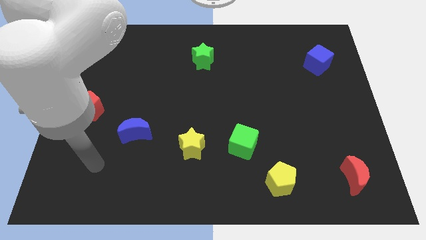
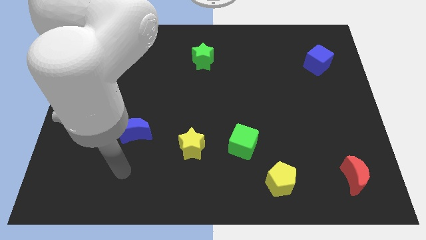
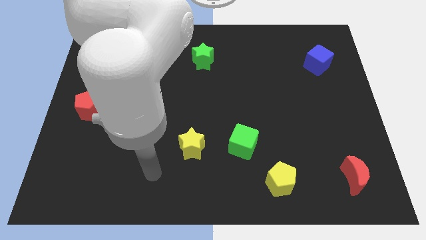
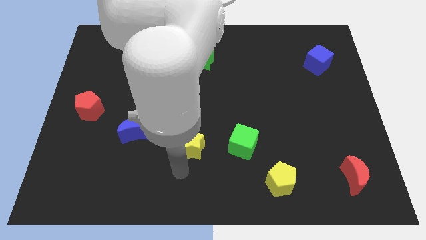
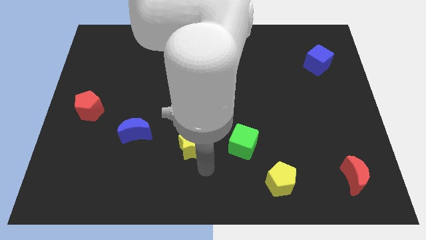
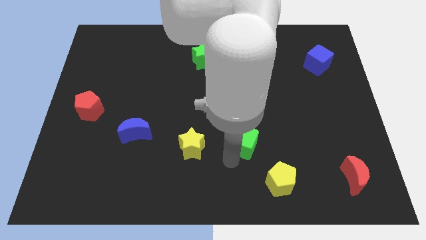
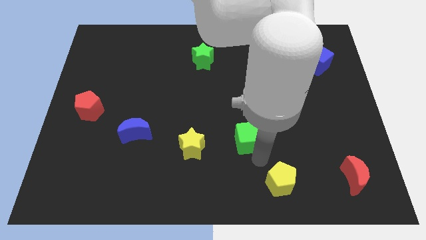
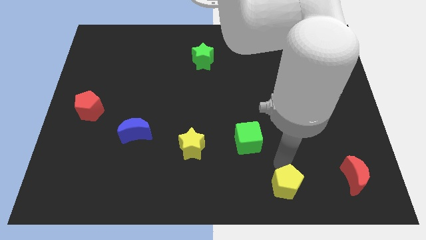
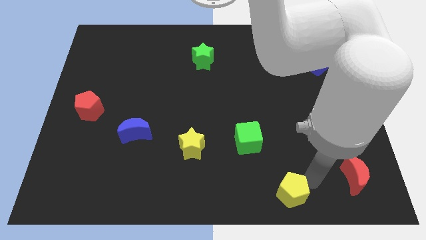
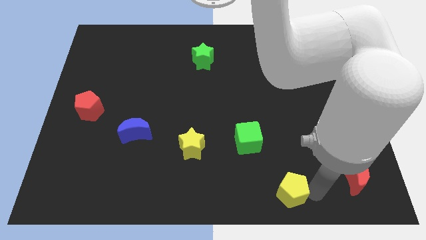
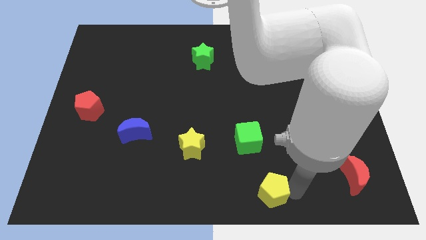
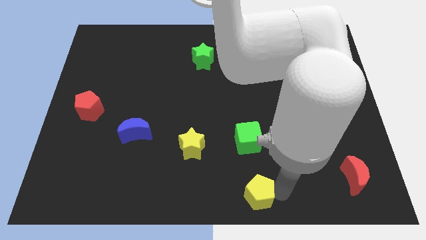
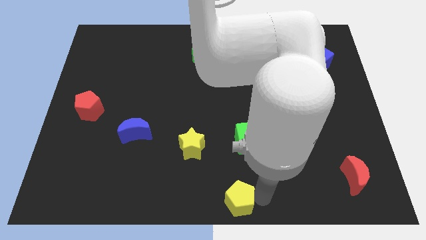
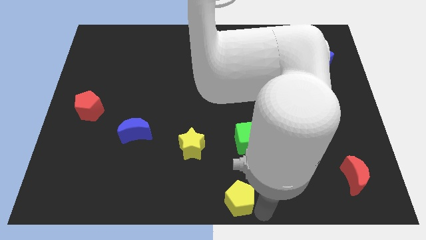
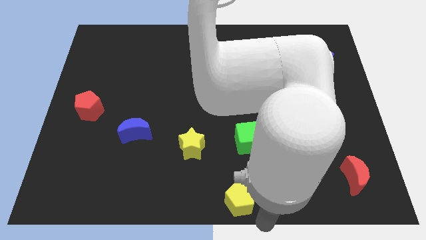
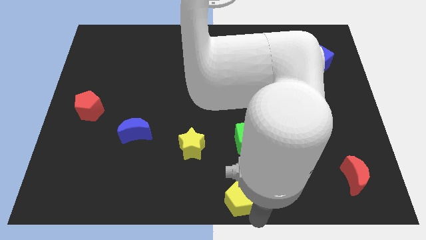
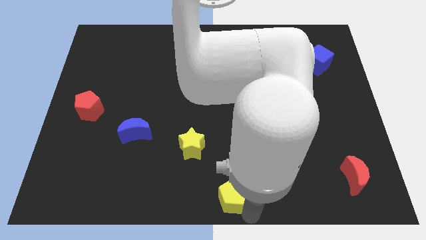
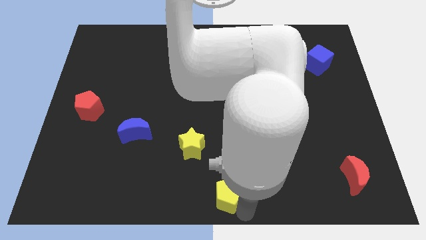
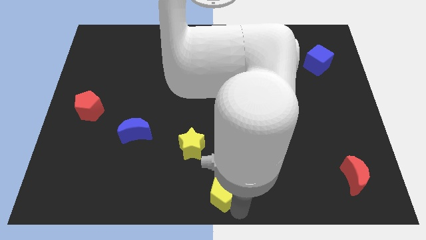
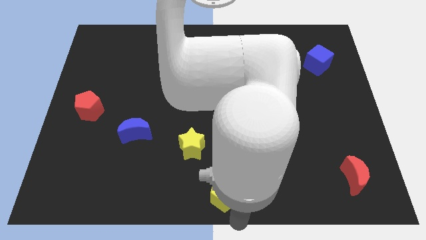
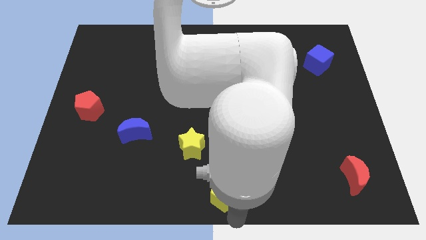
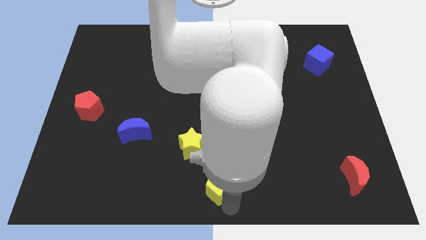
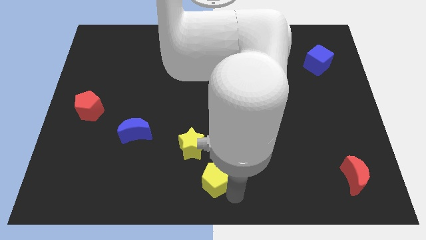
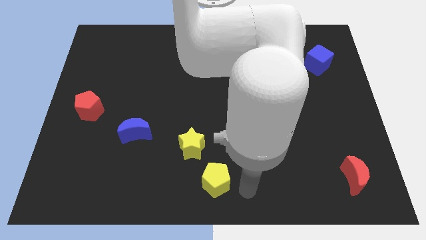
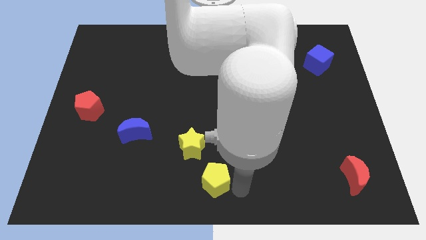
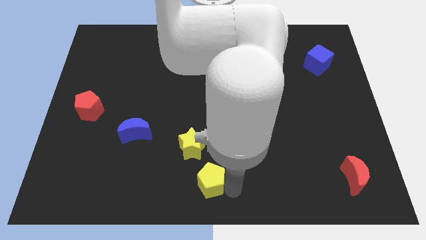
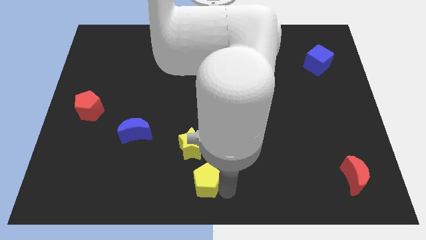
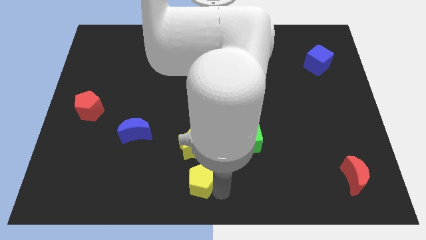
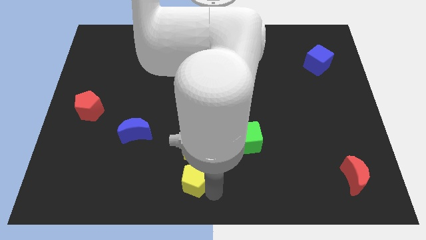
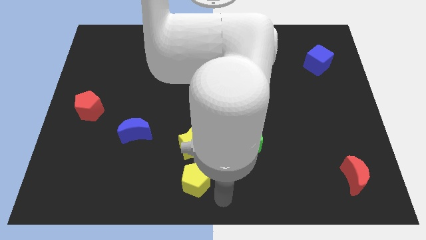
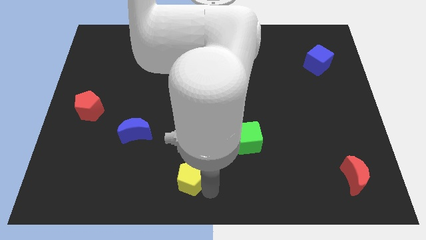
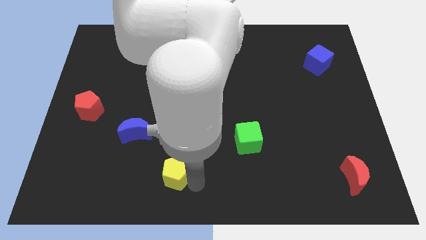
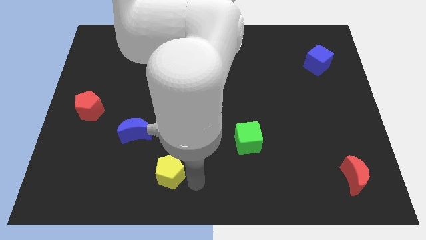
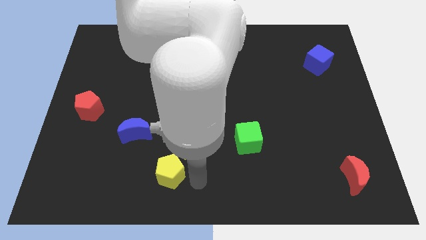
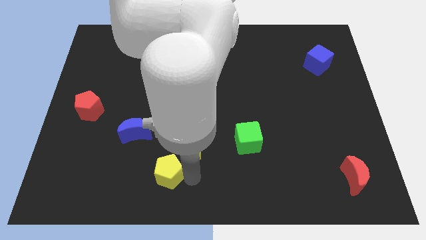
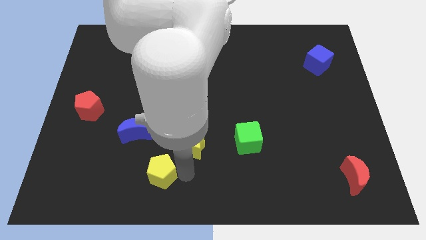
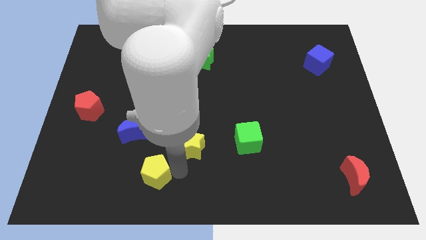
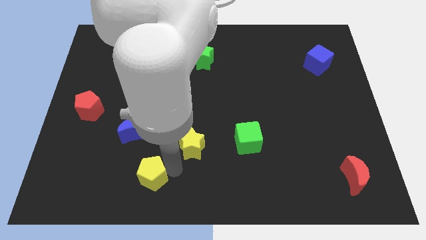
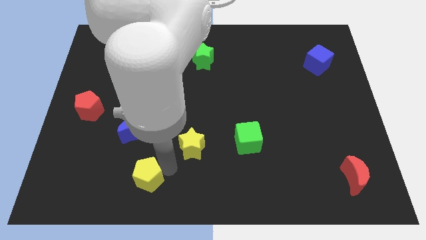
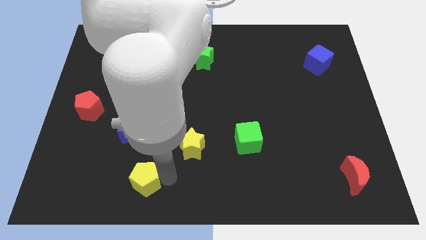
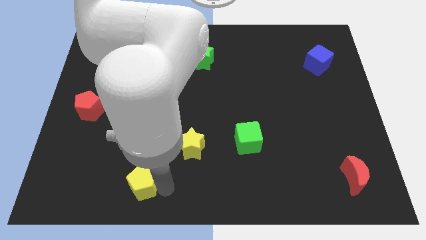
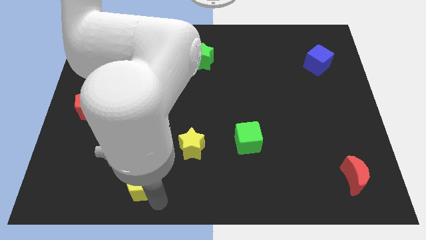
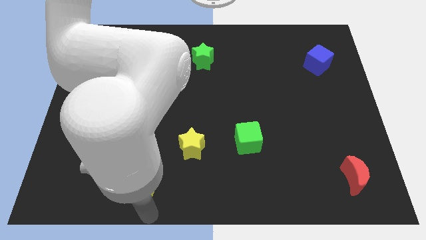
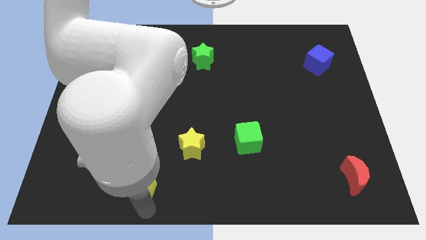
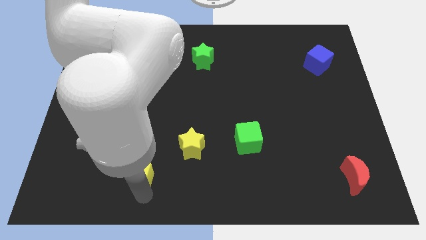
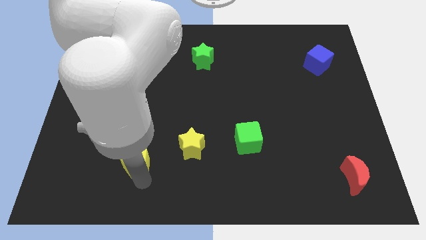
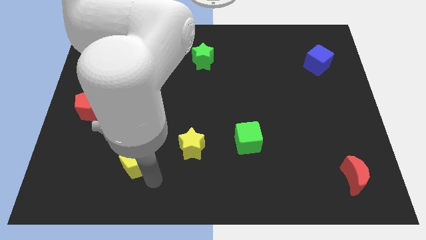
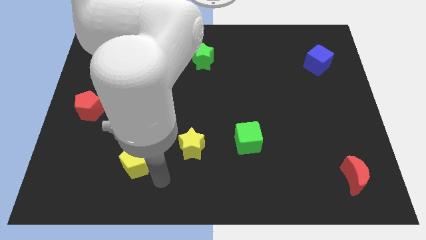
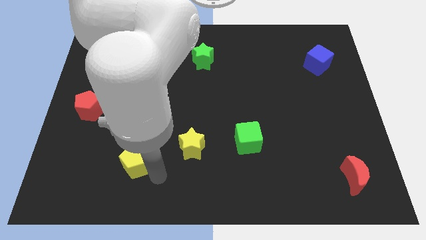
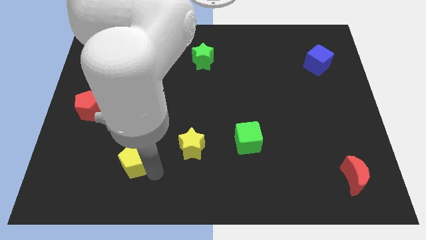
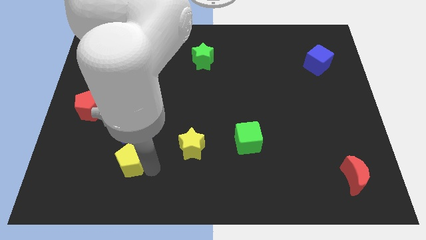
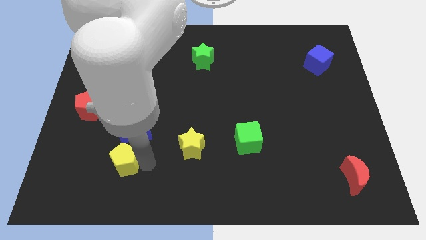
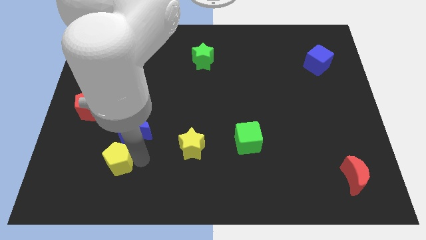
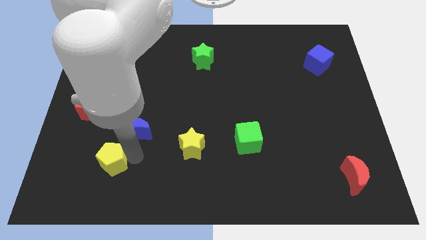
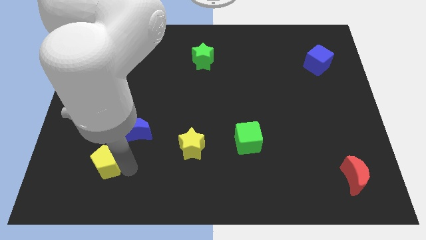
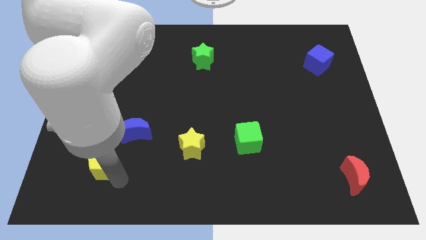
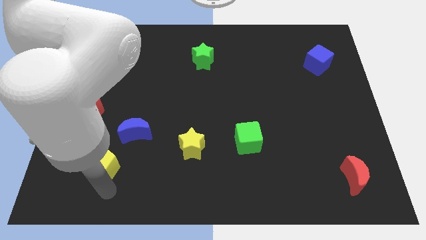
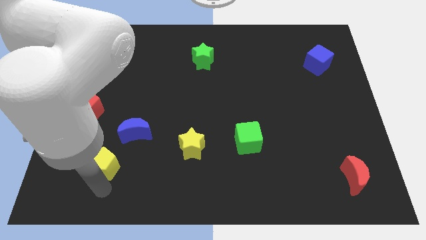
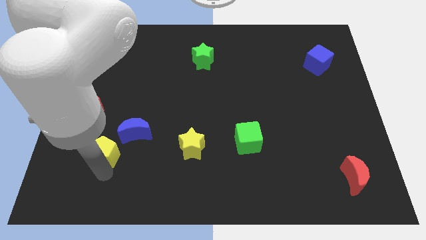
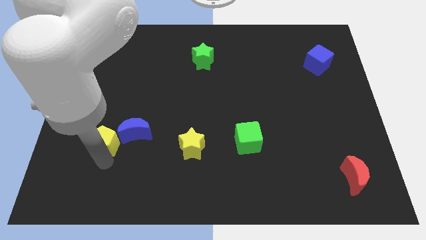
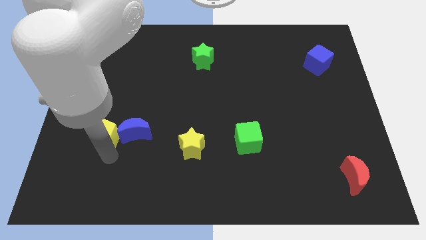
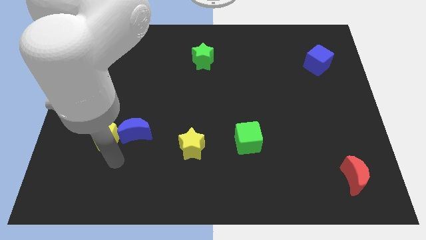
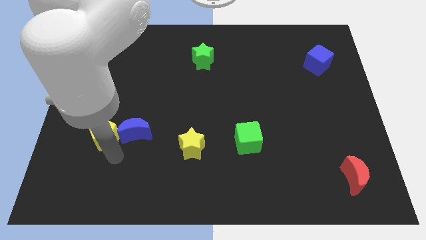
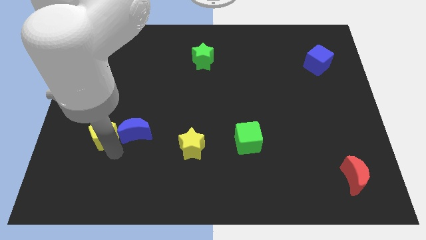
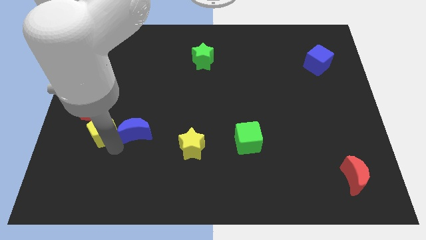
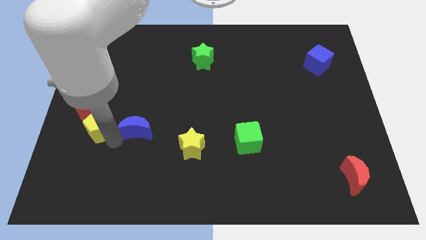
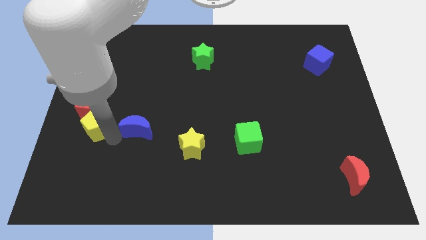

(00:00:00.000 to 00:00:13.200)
slide the yellow pentagon close to the red pentagon
